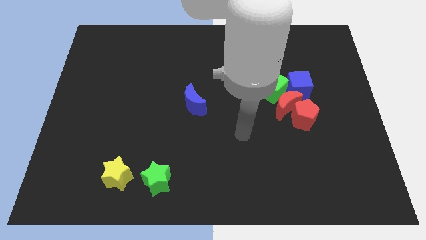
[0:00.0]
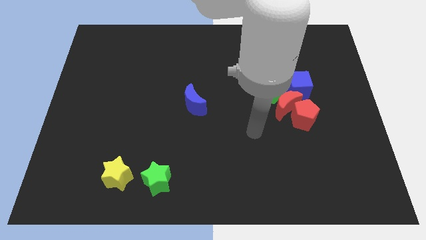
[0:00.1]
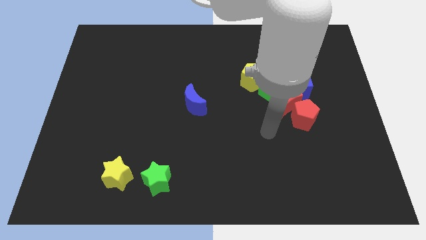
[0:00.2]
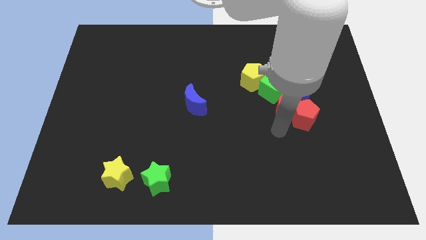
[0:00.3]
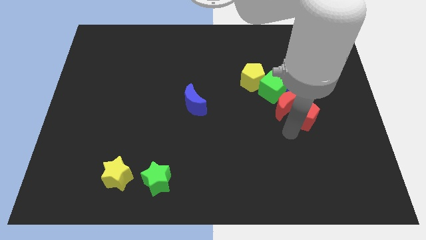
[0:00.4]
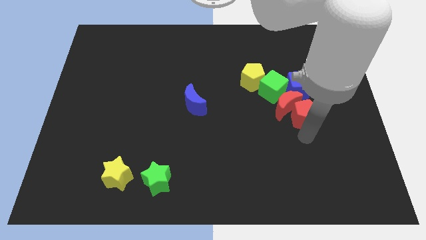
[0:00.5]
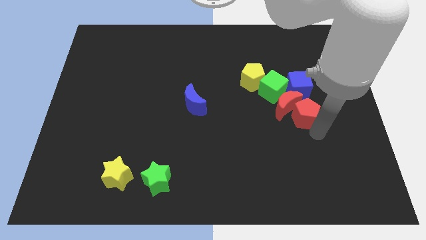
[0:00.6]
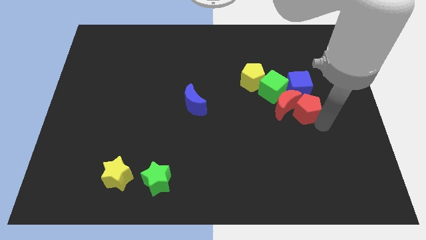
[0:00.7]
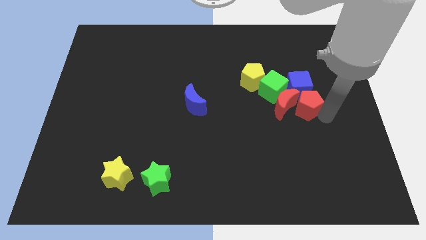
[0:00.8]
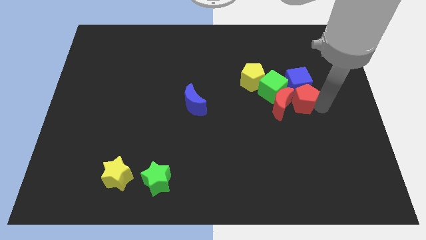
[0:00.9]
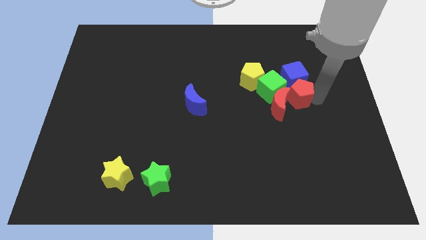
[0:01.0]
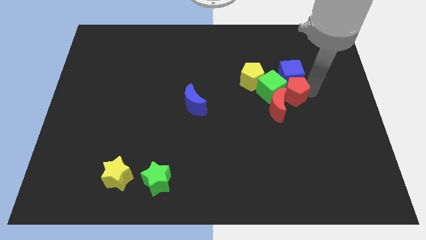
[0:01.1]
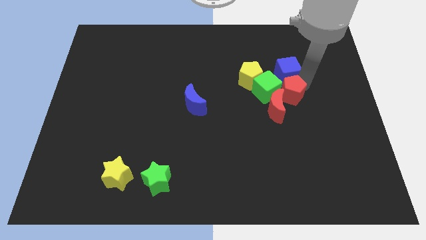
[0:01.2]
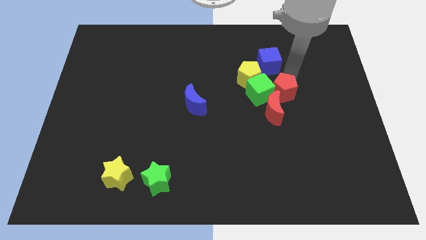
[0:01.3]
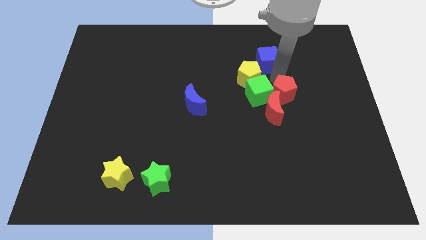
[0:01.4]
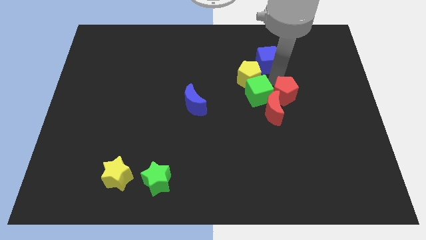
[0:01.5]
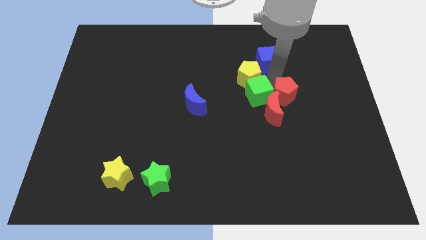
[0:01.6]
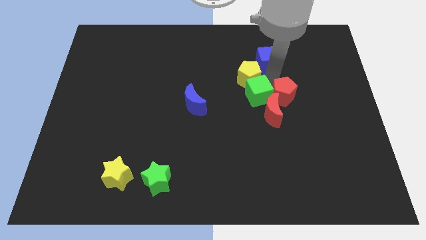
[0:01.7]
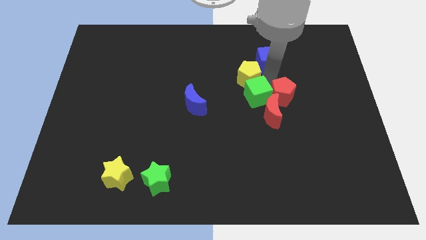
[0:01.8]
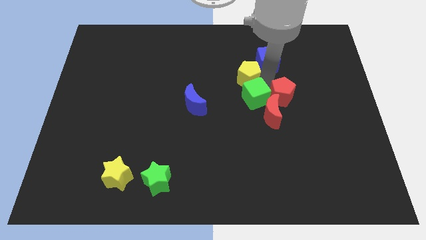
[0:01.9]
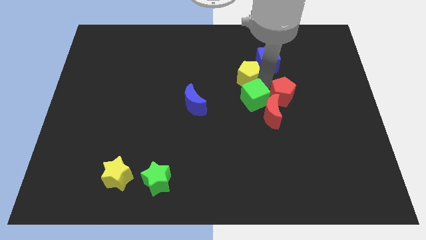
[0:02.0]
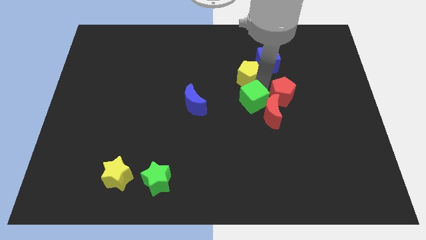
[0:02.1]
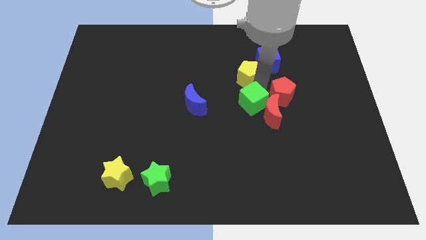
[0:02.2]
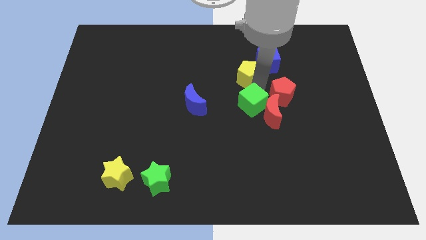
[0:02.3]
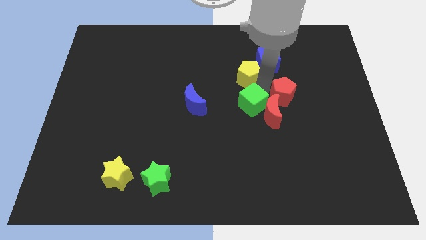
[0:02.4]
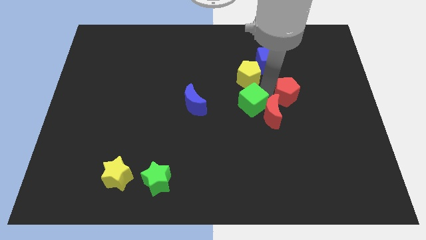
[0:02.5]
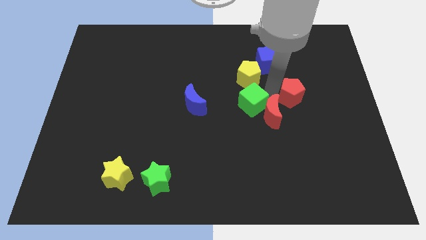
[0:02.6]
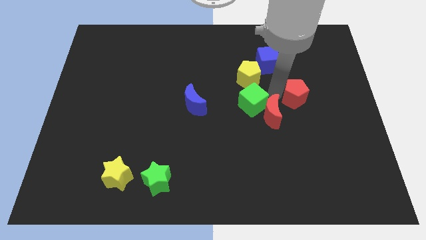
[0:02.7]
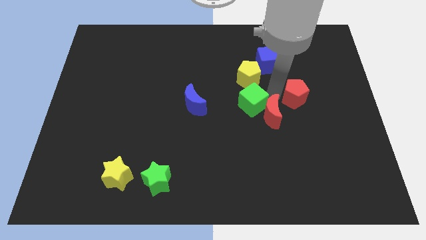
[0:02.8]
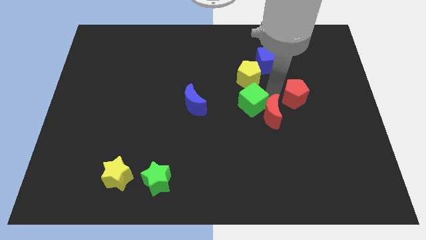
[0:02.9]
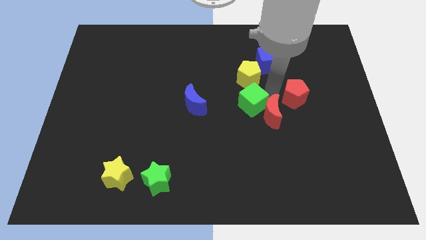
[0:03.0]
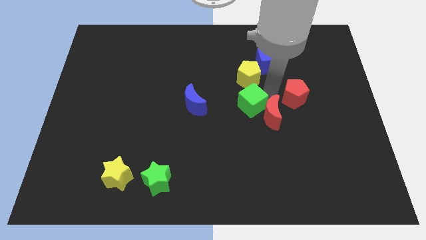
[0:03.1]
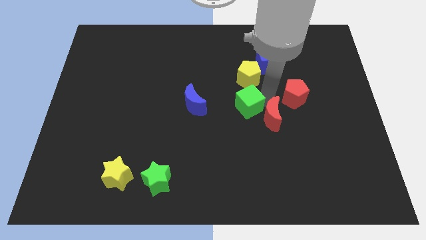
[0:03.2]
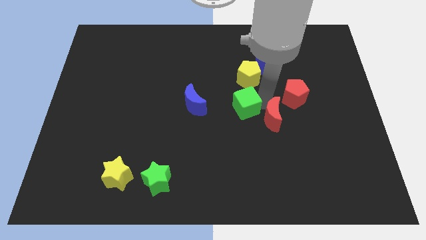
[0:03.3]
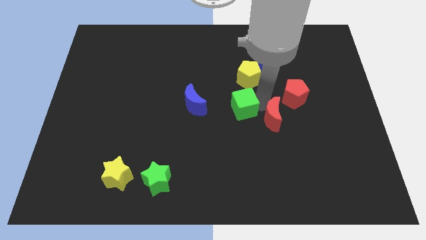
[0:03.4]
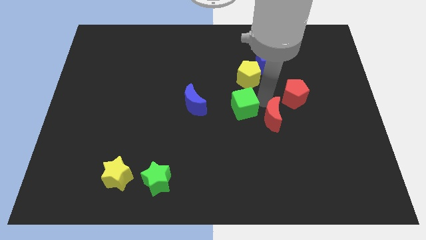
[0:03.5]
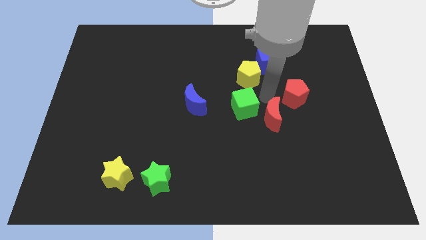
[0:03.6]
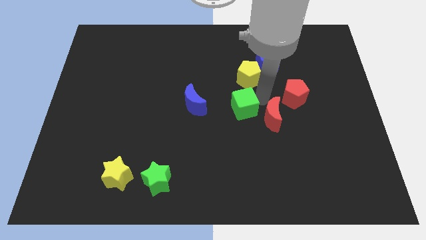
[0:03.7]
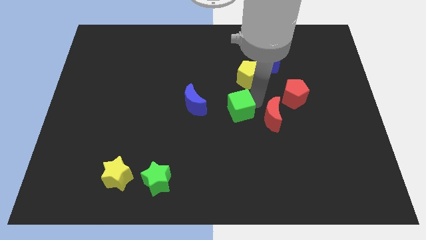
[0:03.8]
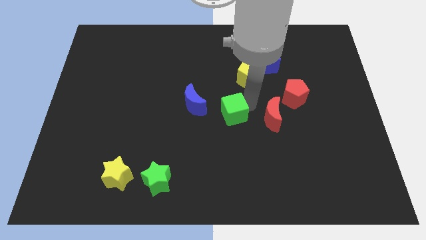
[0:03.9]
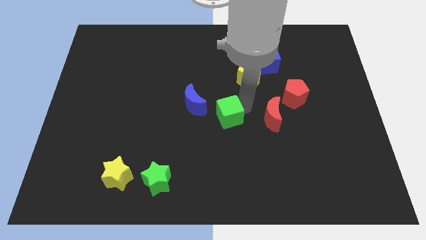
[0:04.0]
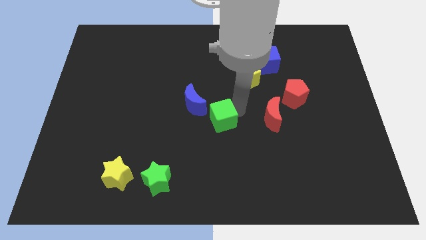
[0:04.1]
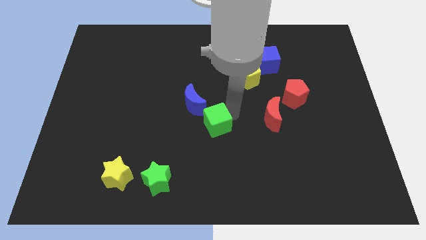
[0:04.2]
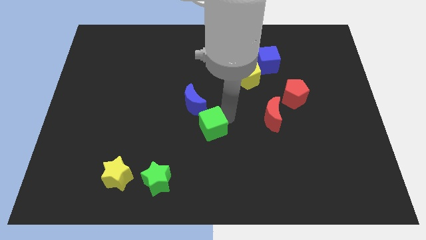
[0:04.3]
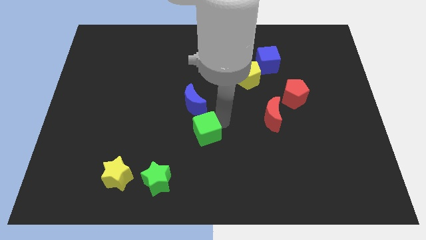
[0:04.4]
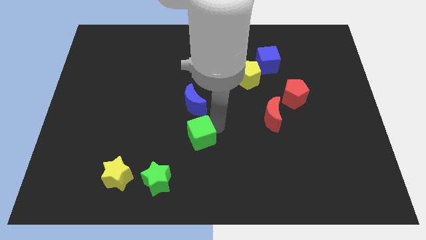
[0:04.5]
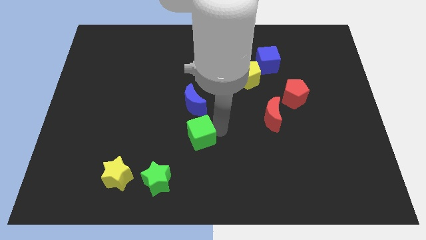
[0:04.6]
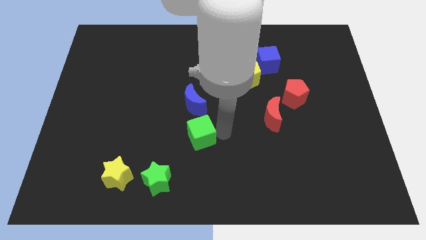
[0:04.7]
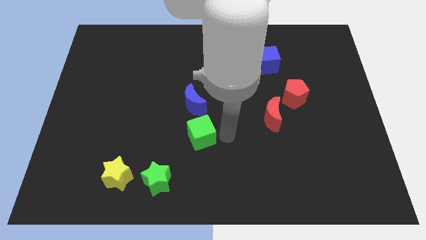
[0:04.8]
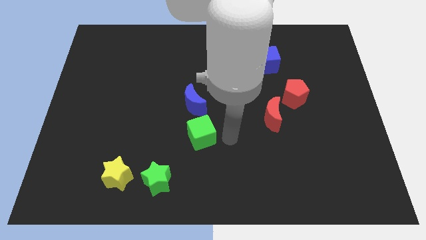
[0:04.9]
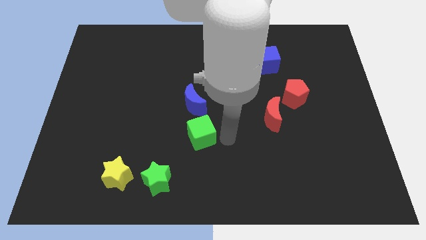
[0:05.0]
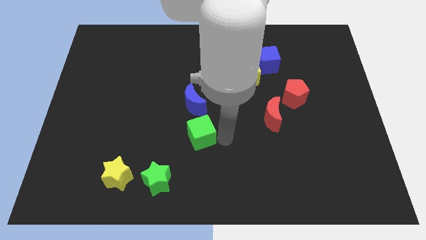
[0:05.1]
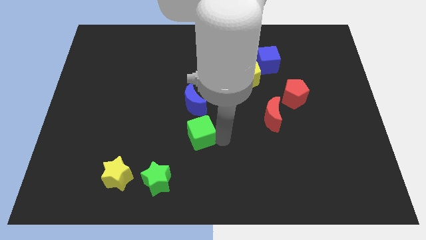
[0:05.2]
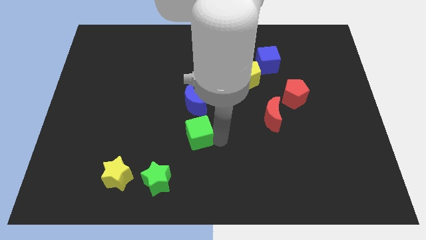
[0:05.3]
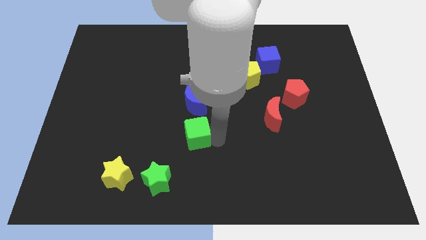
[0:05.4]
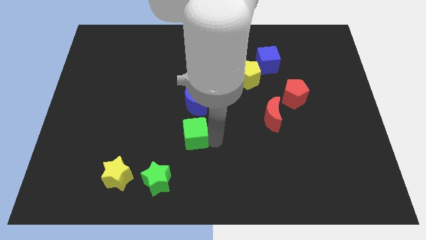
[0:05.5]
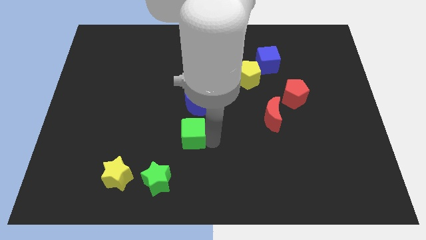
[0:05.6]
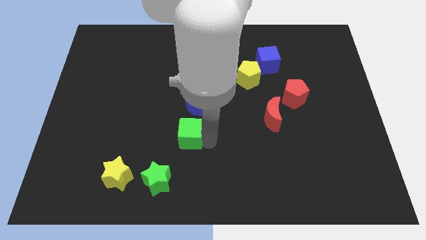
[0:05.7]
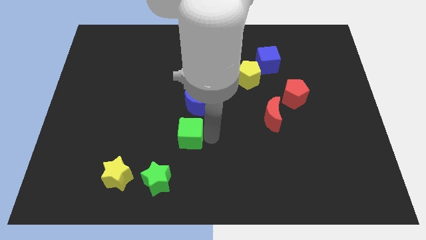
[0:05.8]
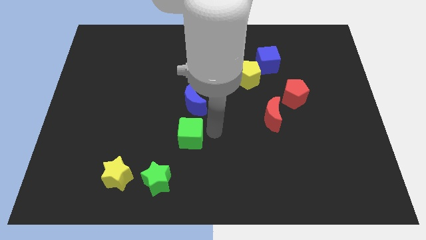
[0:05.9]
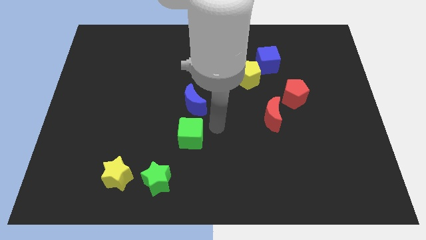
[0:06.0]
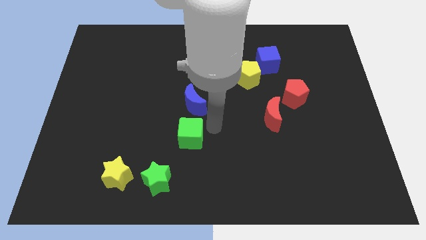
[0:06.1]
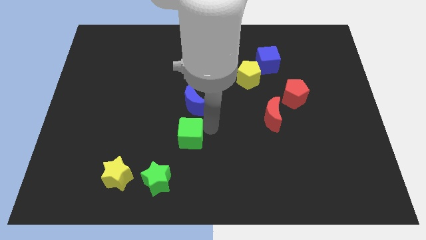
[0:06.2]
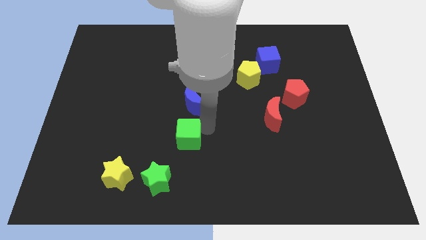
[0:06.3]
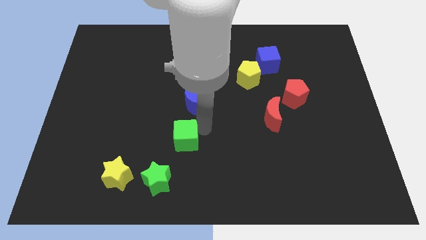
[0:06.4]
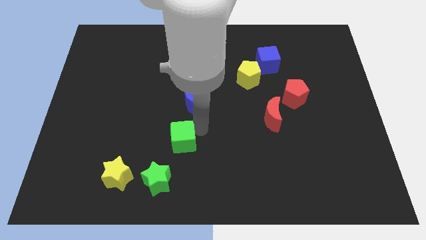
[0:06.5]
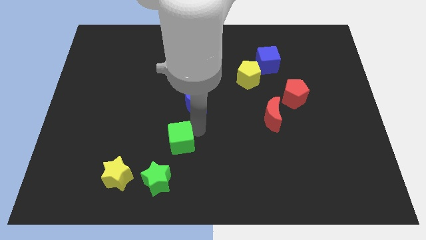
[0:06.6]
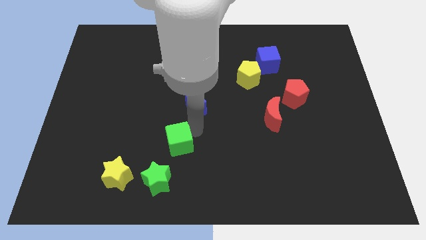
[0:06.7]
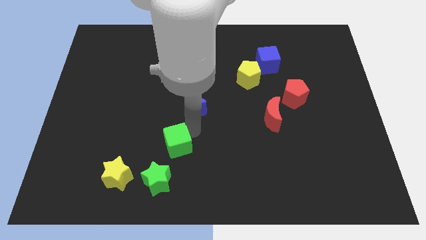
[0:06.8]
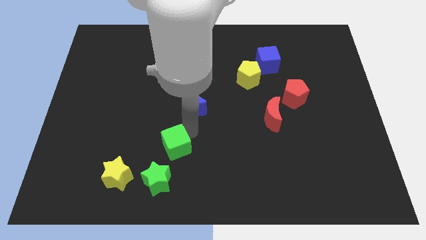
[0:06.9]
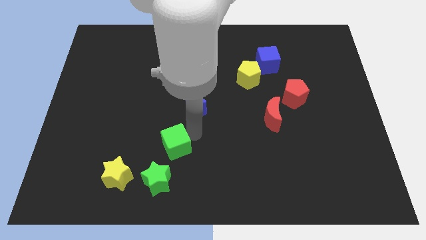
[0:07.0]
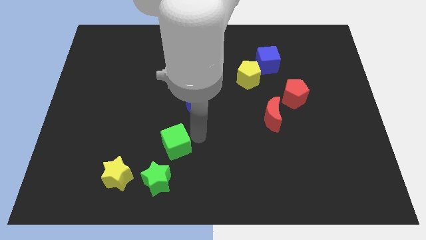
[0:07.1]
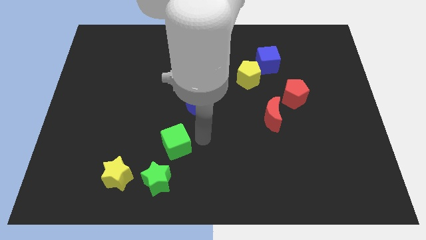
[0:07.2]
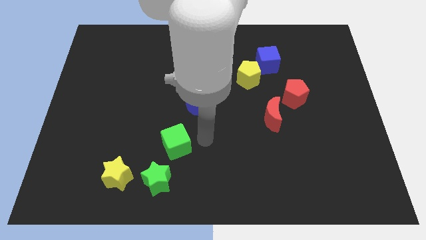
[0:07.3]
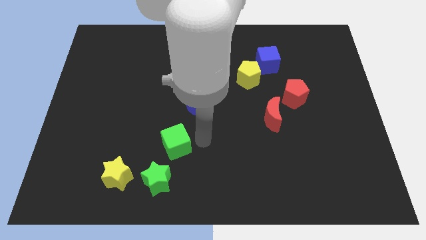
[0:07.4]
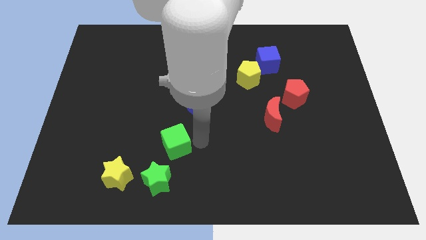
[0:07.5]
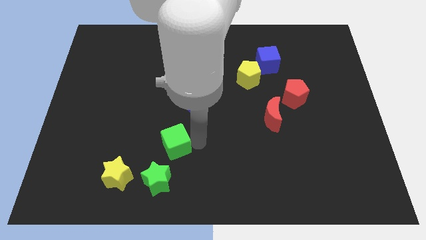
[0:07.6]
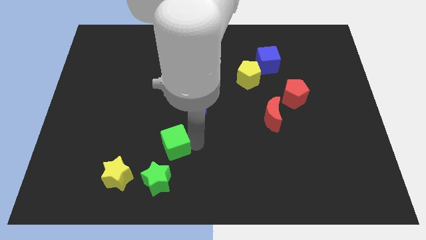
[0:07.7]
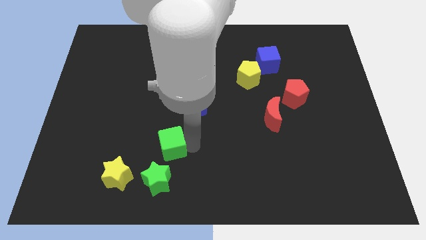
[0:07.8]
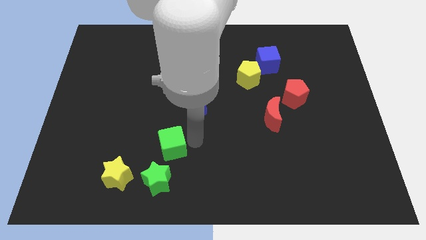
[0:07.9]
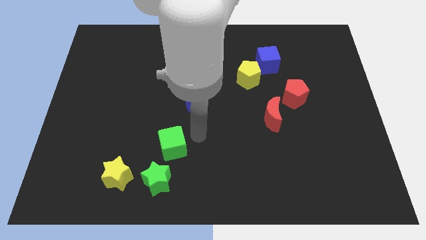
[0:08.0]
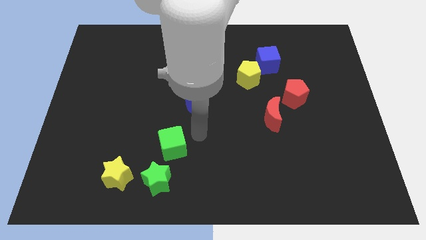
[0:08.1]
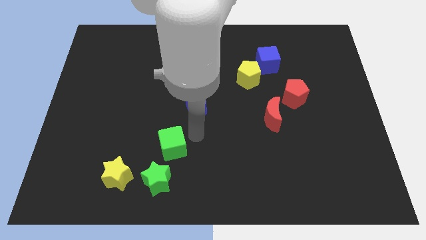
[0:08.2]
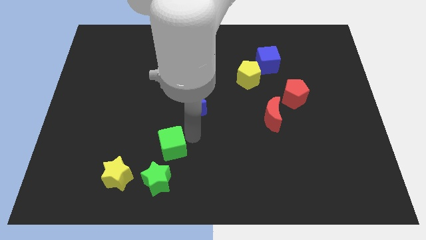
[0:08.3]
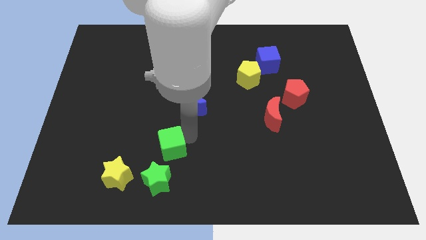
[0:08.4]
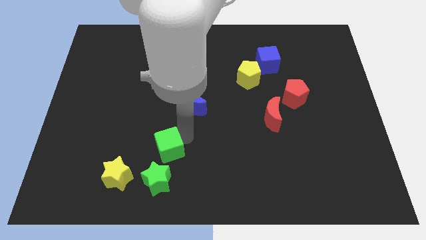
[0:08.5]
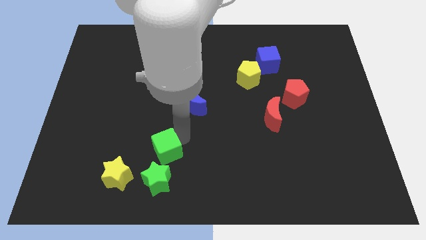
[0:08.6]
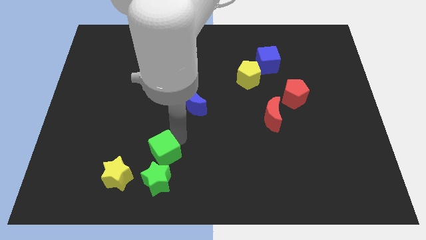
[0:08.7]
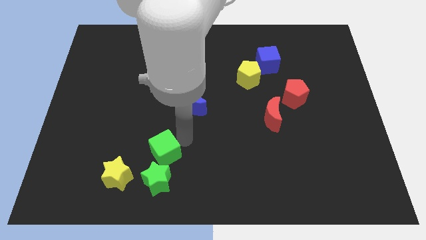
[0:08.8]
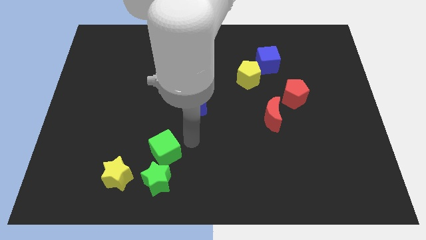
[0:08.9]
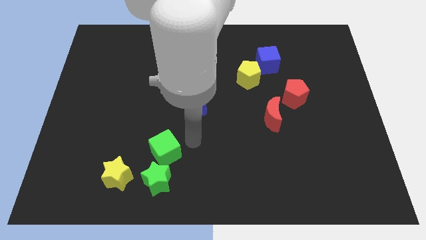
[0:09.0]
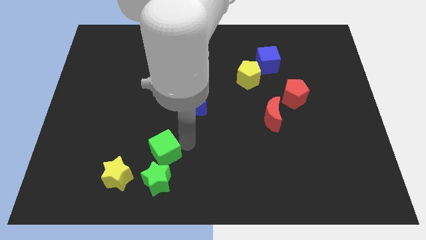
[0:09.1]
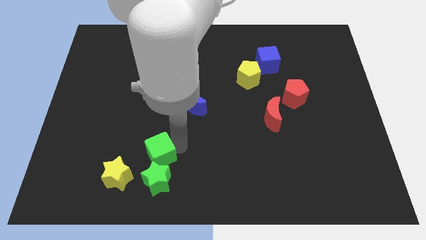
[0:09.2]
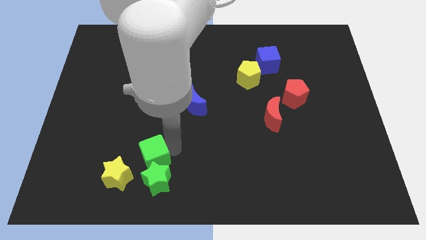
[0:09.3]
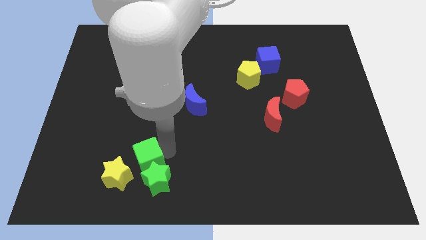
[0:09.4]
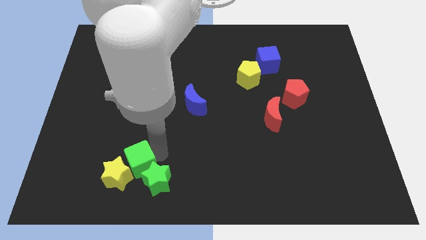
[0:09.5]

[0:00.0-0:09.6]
push the green cube next to the yellow star
